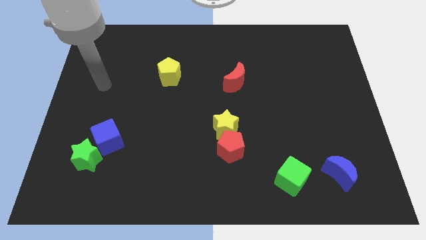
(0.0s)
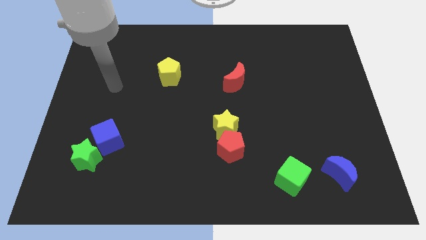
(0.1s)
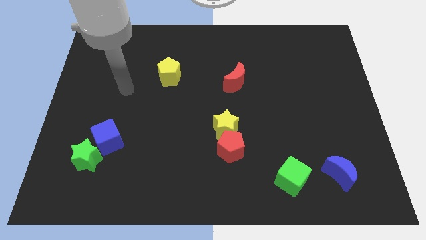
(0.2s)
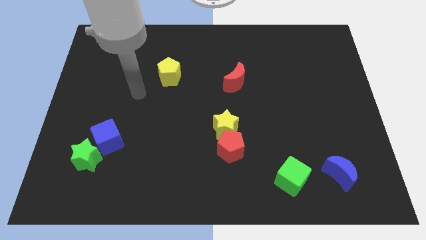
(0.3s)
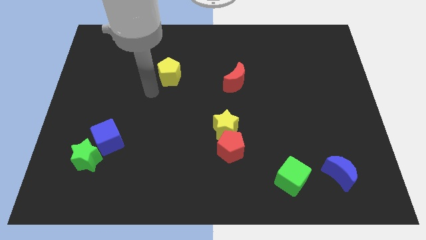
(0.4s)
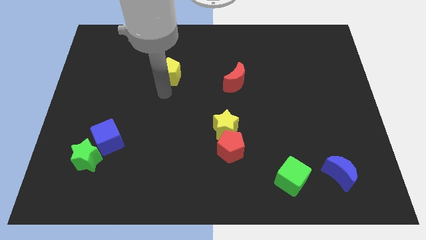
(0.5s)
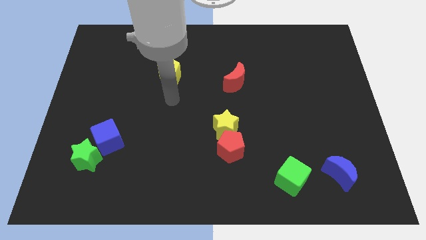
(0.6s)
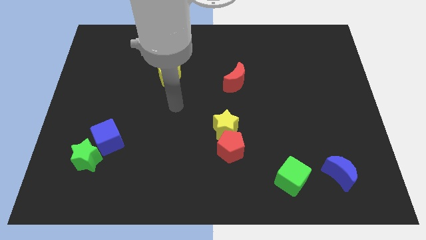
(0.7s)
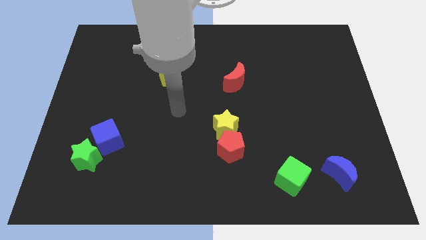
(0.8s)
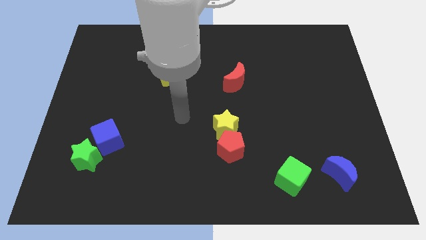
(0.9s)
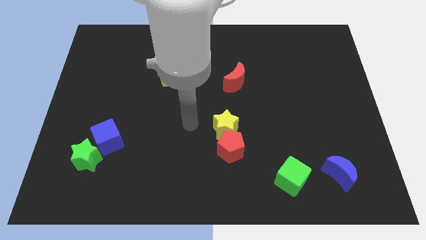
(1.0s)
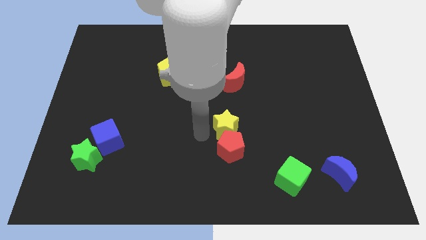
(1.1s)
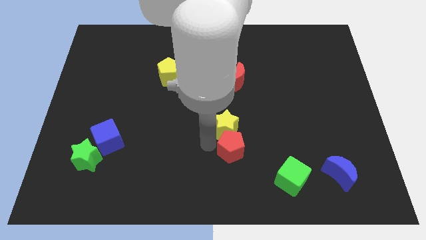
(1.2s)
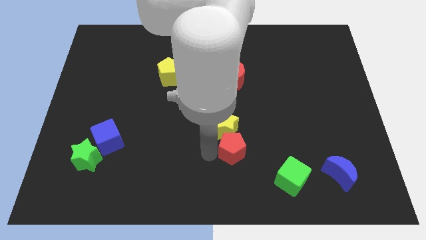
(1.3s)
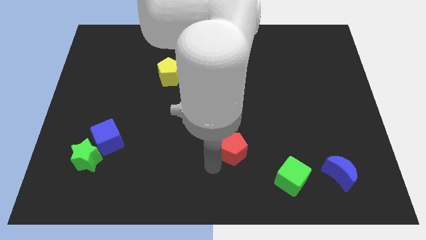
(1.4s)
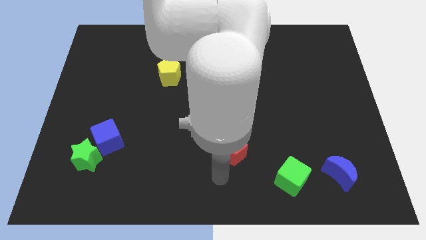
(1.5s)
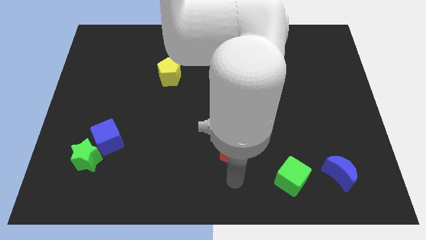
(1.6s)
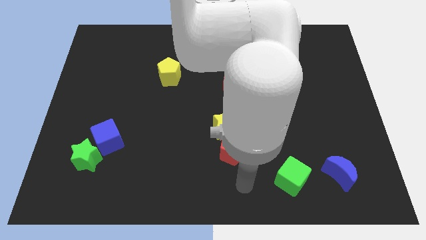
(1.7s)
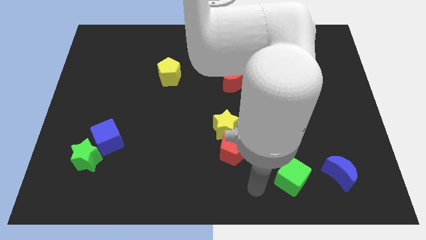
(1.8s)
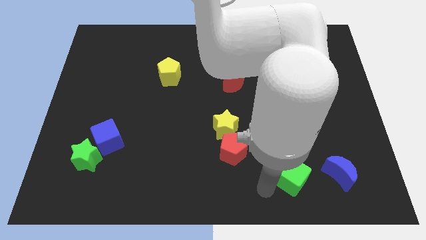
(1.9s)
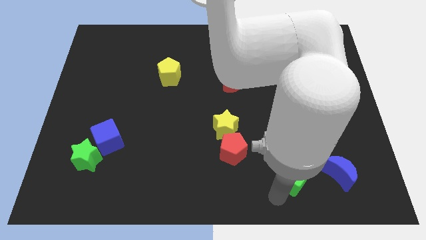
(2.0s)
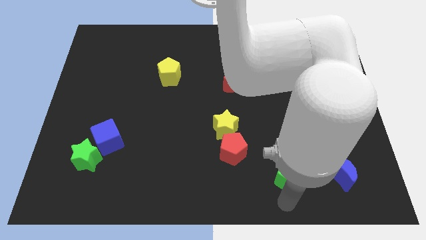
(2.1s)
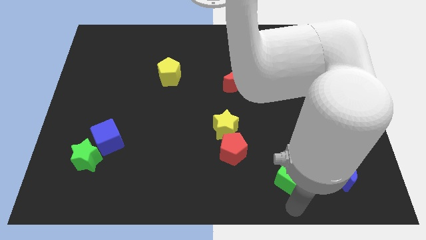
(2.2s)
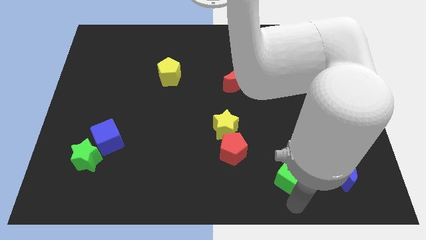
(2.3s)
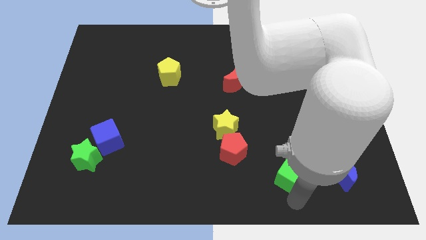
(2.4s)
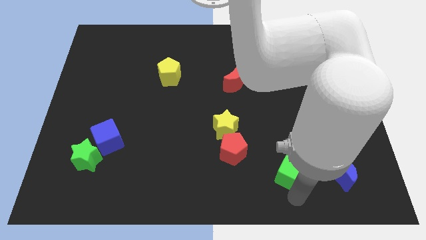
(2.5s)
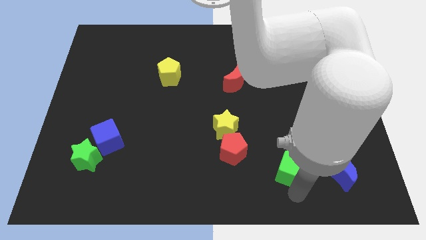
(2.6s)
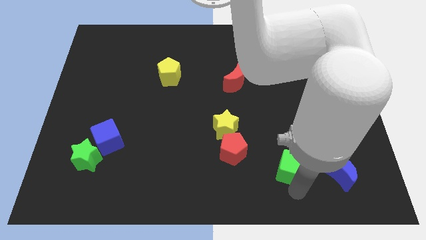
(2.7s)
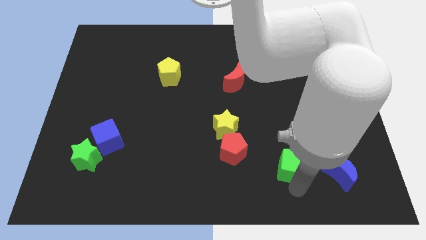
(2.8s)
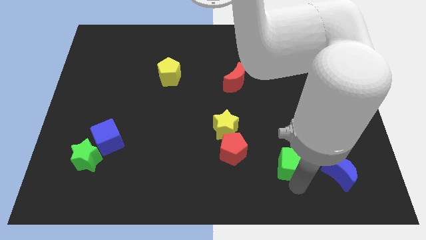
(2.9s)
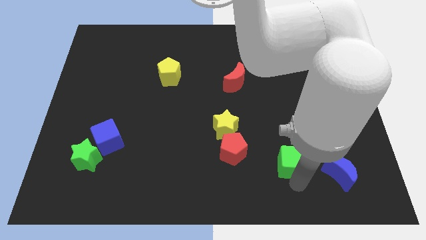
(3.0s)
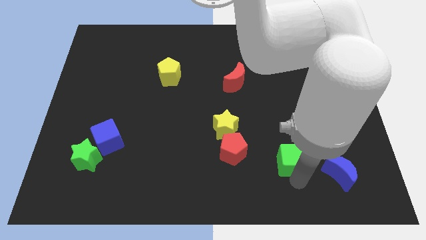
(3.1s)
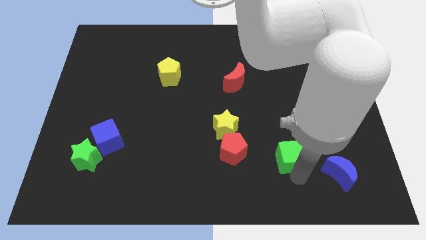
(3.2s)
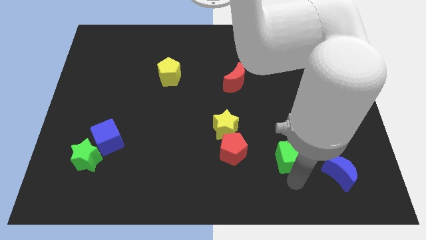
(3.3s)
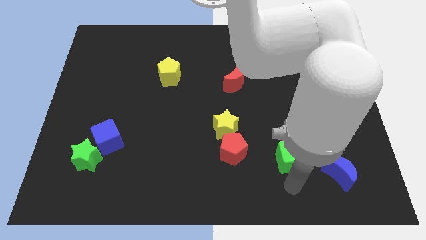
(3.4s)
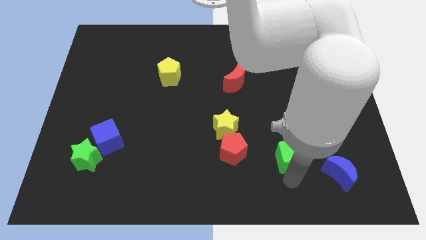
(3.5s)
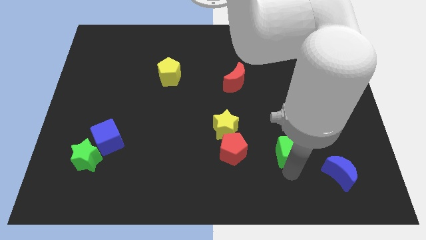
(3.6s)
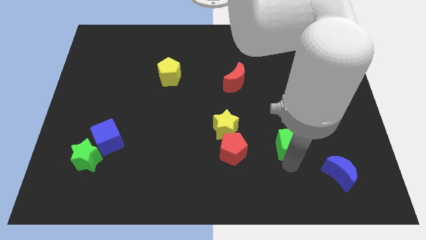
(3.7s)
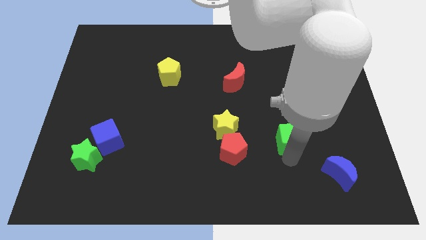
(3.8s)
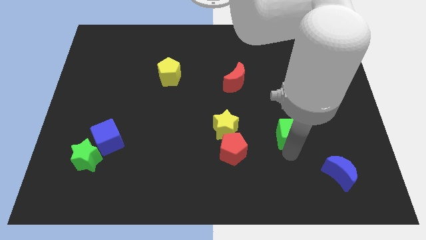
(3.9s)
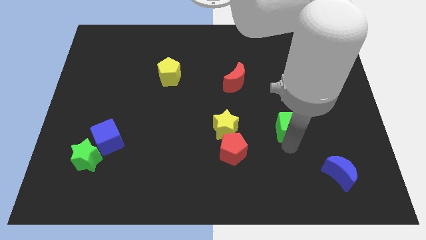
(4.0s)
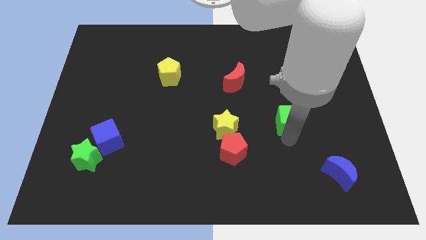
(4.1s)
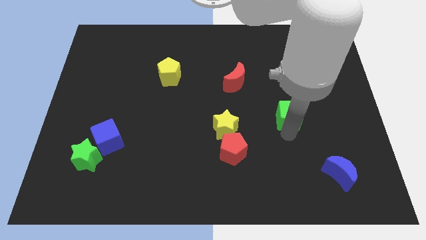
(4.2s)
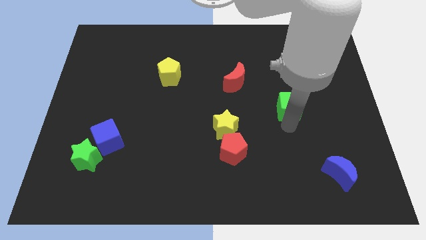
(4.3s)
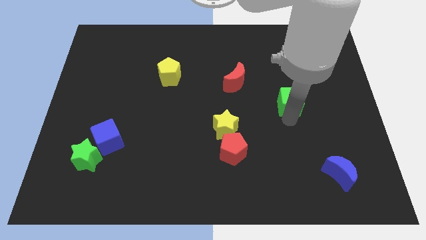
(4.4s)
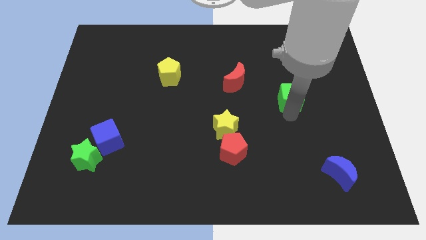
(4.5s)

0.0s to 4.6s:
move the green cube up

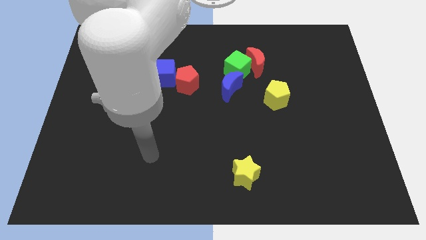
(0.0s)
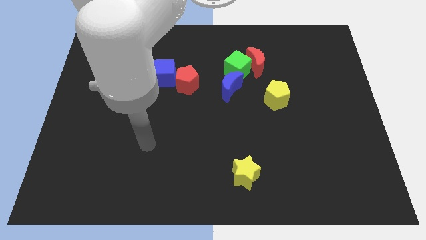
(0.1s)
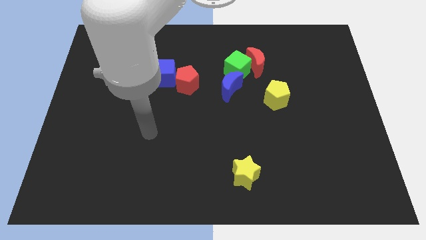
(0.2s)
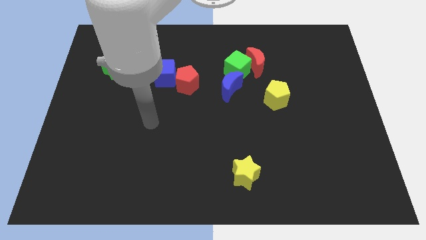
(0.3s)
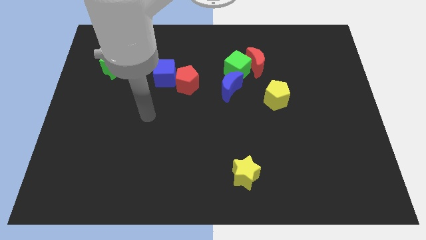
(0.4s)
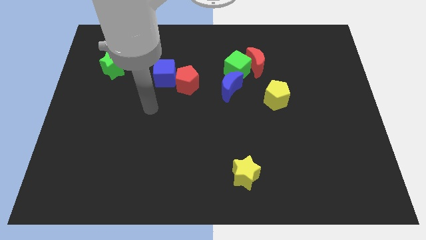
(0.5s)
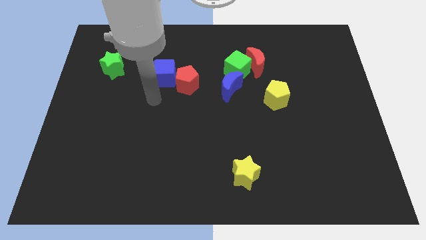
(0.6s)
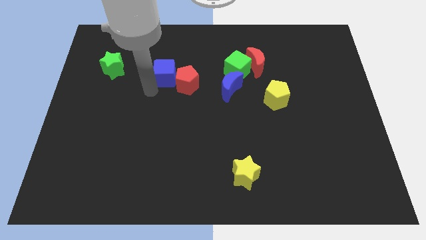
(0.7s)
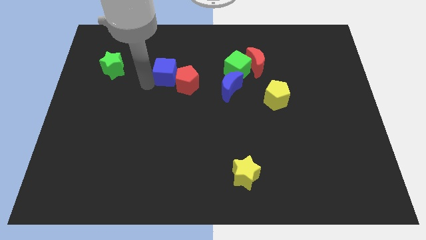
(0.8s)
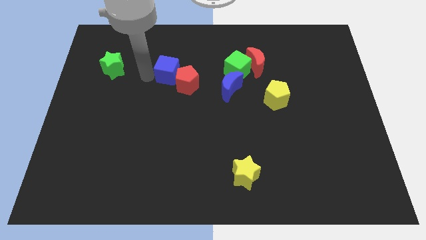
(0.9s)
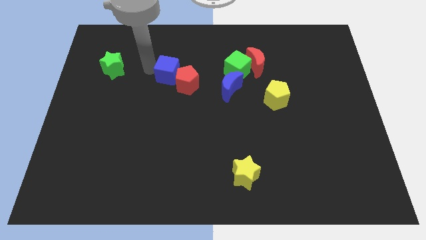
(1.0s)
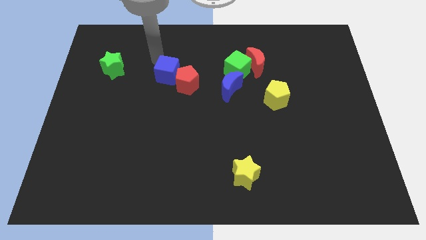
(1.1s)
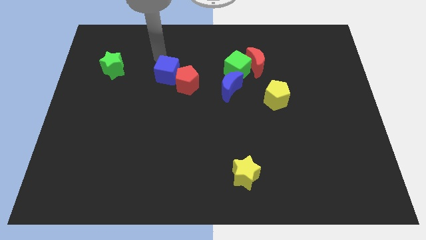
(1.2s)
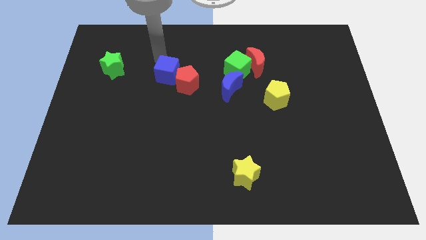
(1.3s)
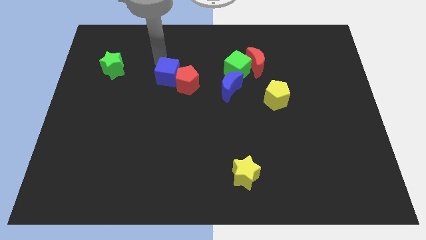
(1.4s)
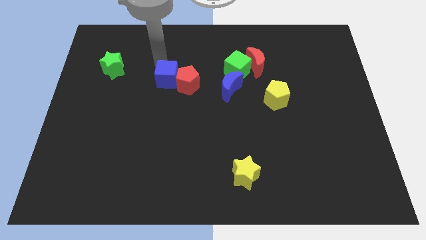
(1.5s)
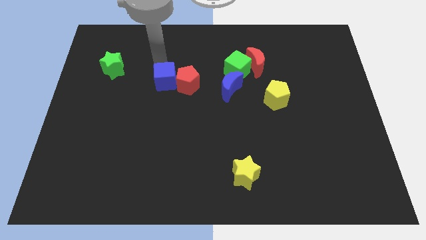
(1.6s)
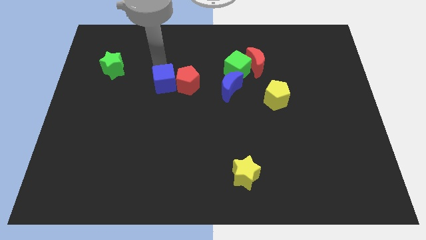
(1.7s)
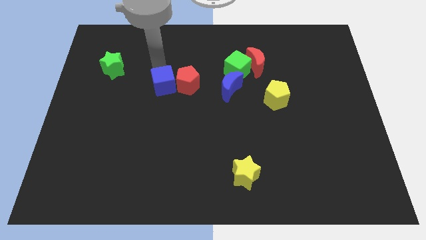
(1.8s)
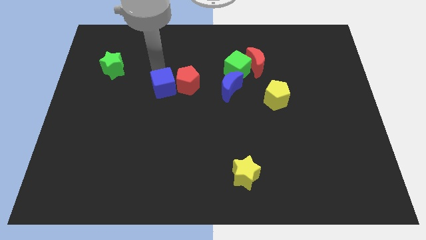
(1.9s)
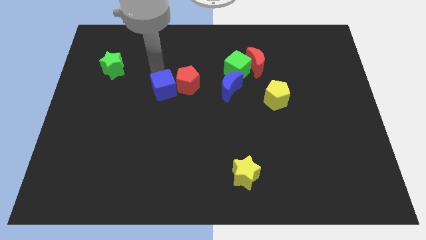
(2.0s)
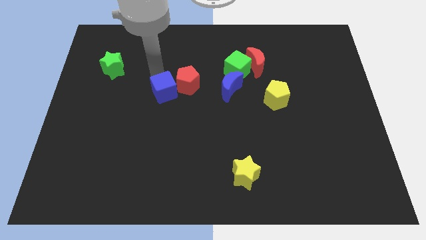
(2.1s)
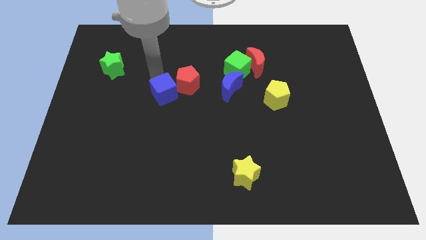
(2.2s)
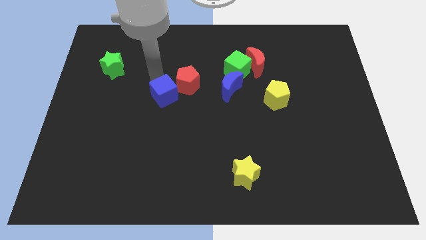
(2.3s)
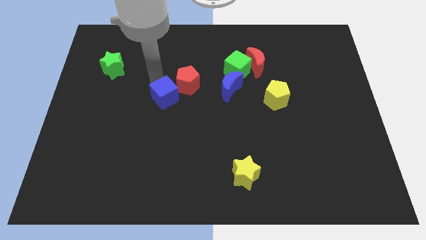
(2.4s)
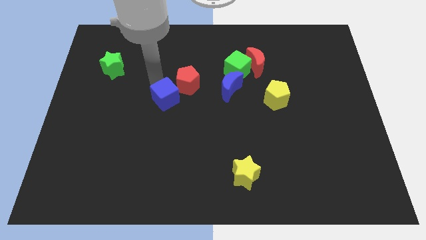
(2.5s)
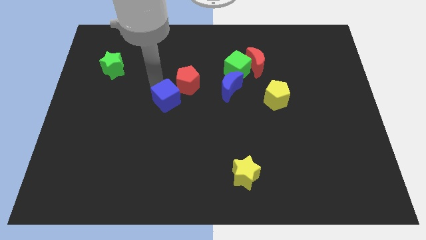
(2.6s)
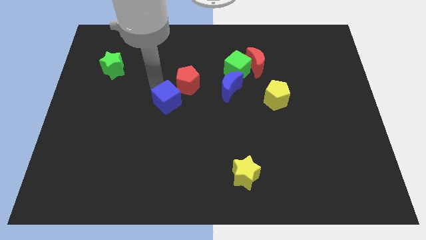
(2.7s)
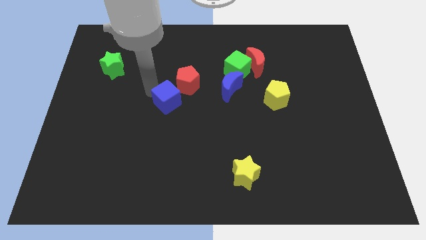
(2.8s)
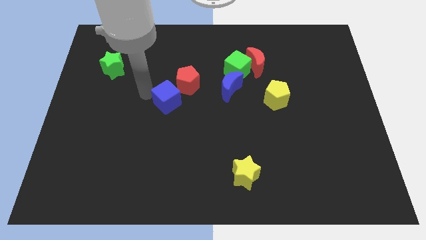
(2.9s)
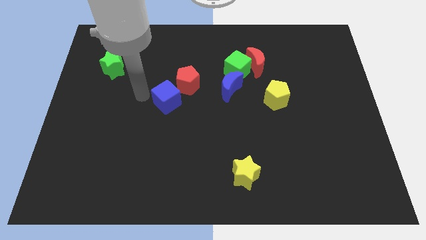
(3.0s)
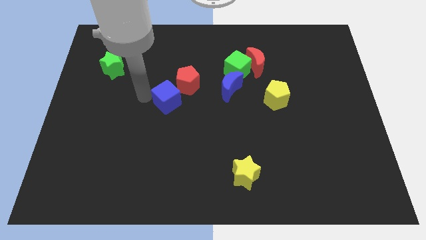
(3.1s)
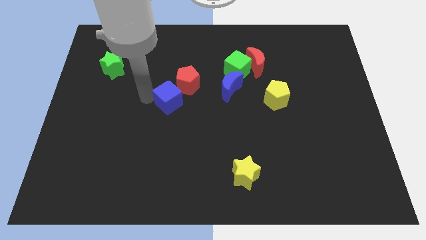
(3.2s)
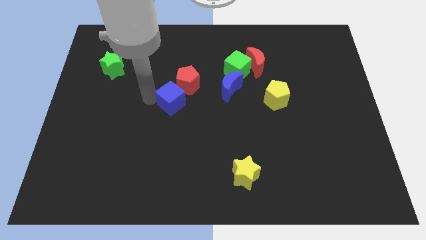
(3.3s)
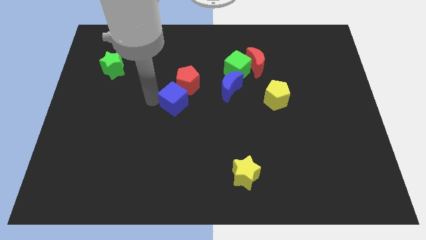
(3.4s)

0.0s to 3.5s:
slightly push the blue cube down and right

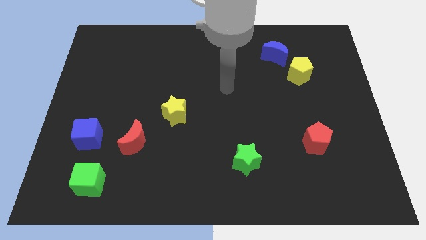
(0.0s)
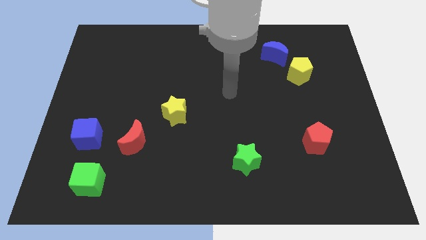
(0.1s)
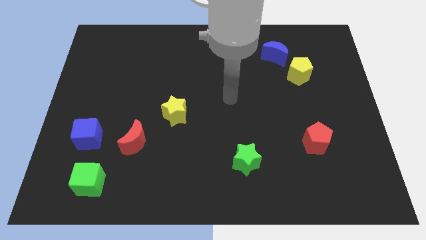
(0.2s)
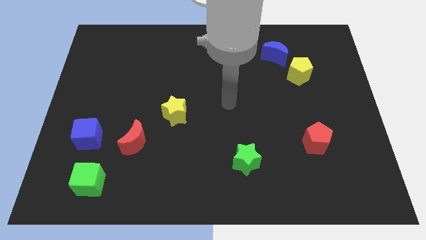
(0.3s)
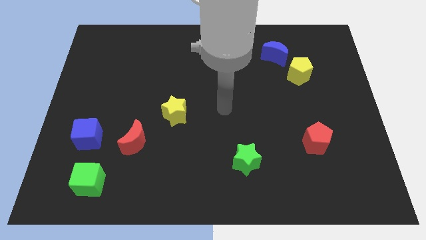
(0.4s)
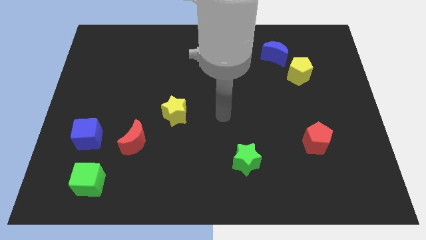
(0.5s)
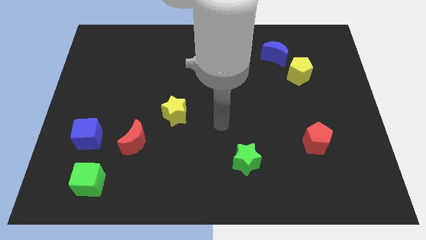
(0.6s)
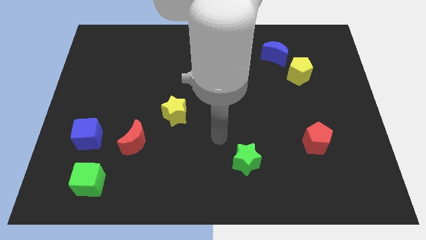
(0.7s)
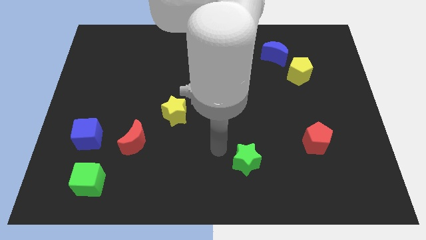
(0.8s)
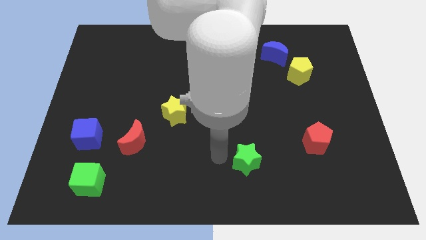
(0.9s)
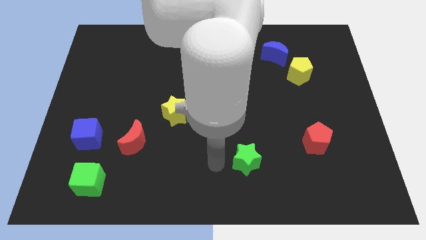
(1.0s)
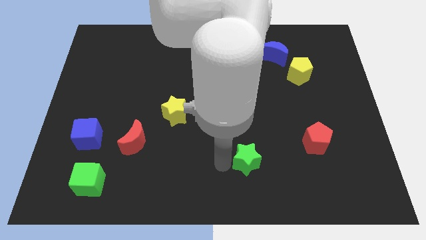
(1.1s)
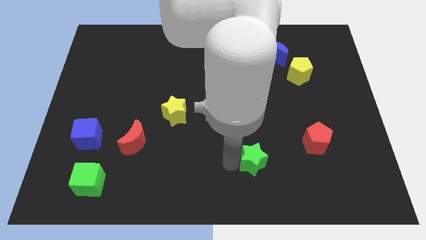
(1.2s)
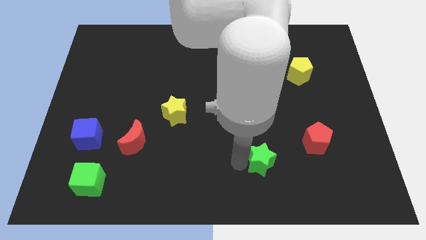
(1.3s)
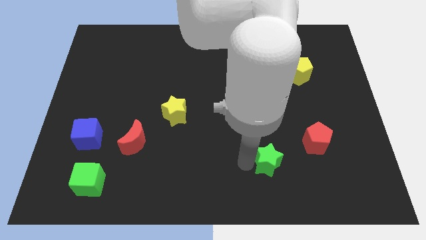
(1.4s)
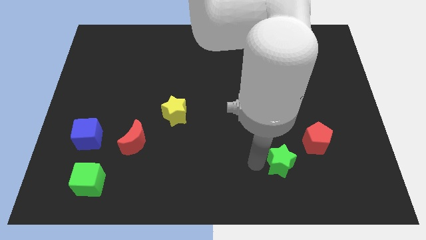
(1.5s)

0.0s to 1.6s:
move the green star right slightly
